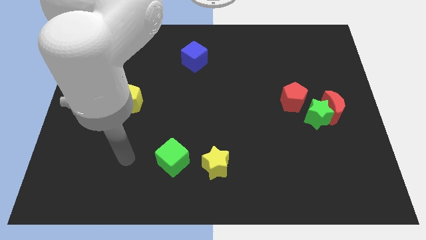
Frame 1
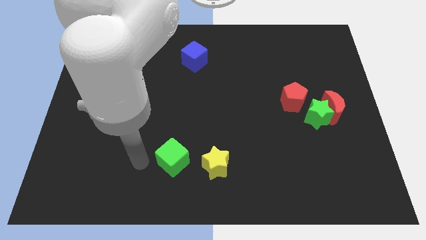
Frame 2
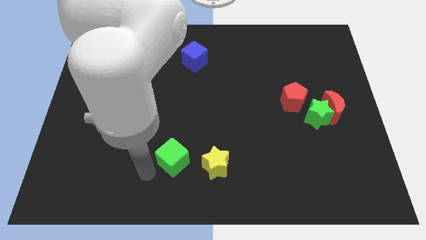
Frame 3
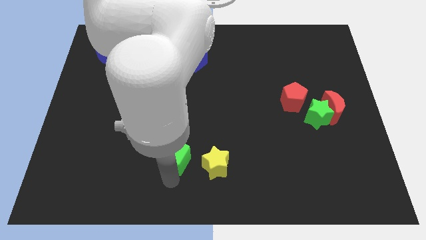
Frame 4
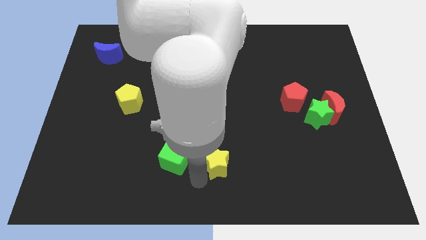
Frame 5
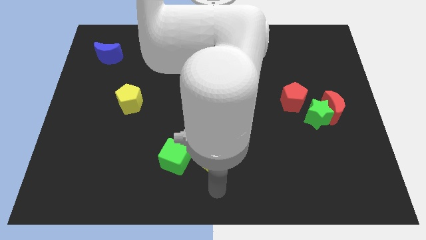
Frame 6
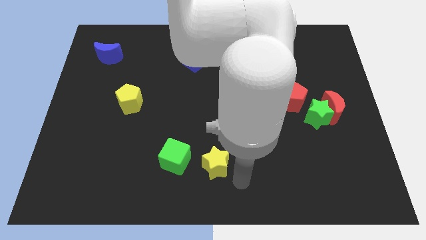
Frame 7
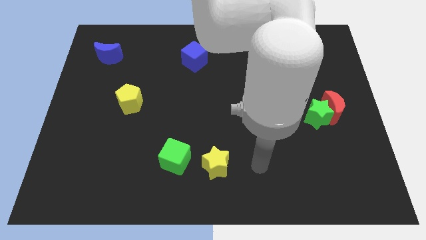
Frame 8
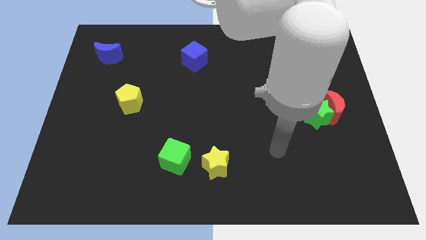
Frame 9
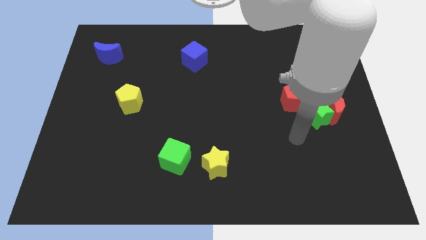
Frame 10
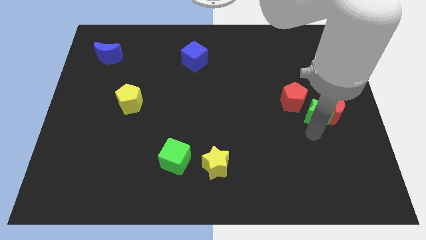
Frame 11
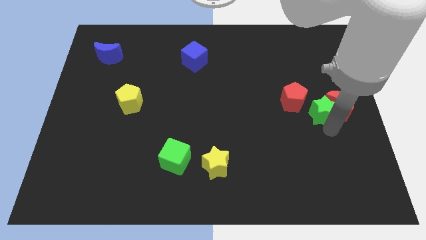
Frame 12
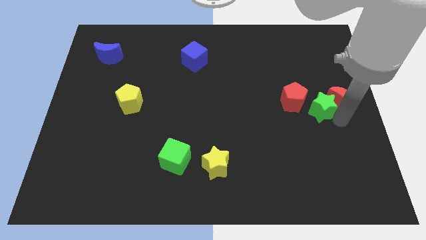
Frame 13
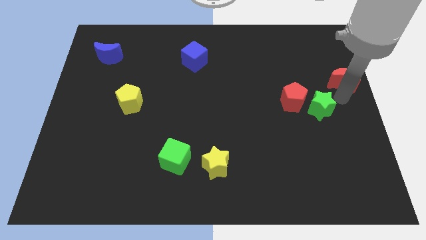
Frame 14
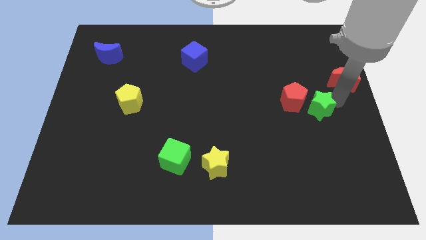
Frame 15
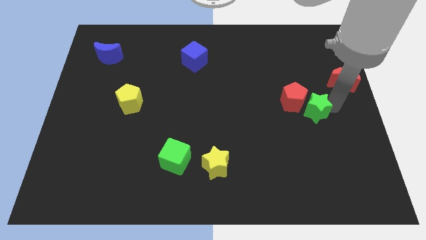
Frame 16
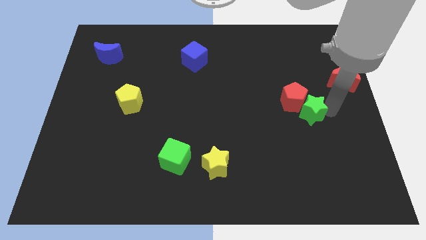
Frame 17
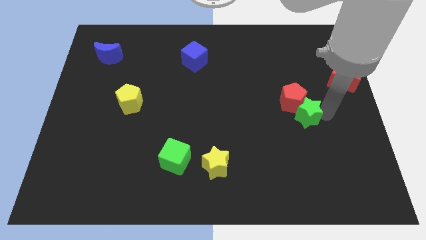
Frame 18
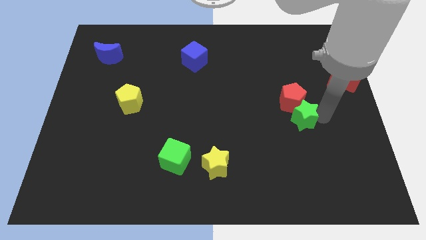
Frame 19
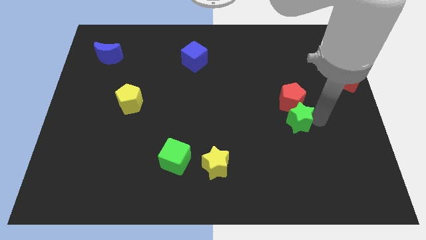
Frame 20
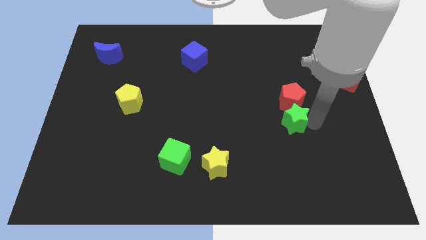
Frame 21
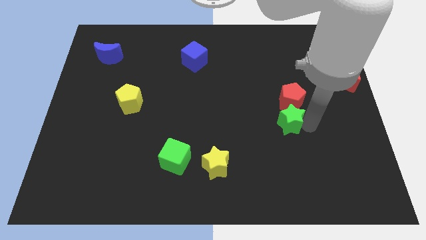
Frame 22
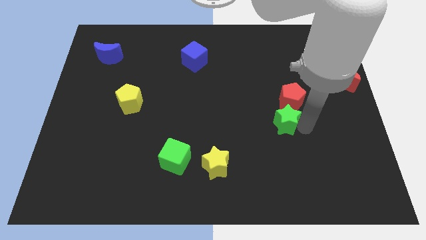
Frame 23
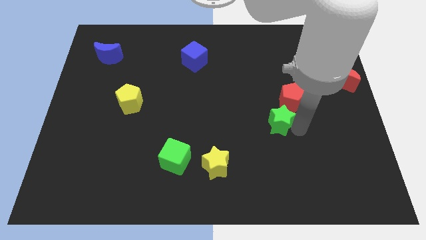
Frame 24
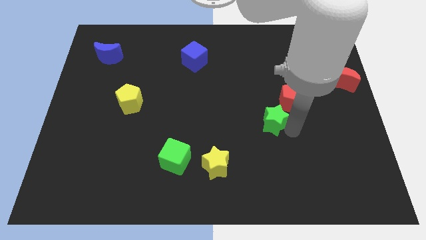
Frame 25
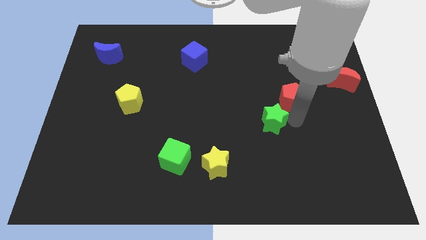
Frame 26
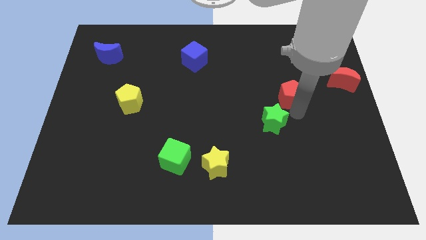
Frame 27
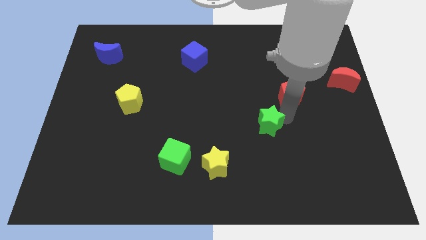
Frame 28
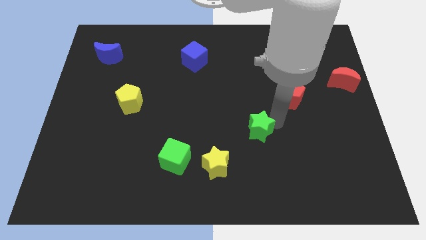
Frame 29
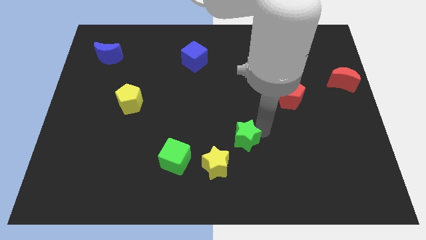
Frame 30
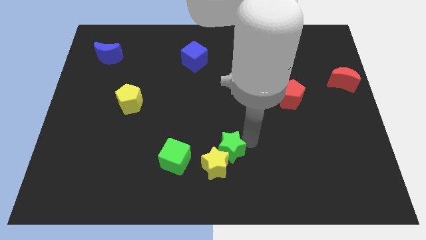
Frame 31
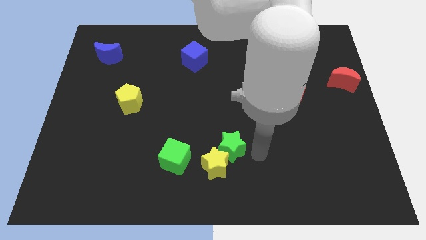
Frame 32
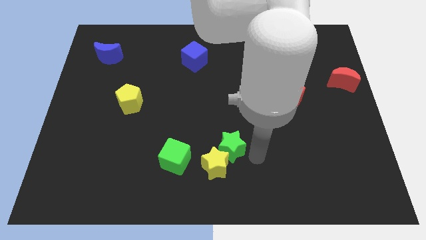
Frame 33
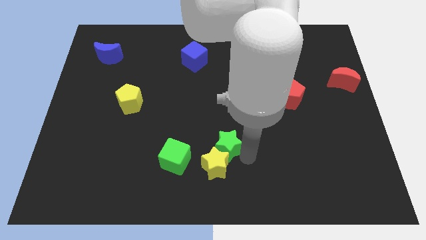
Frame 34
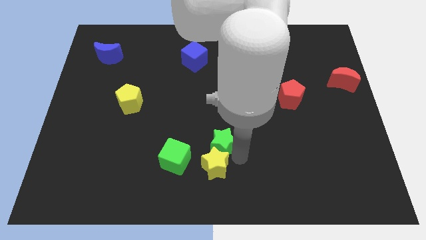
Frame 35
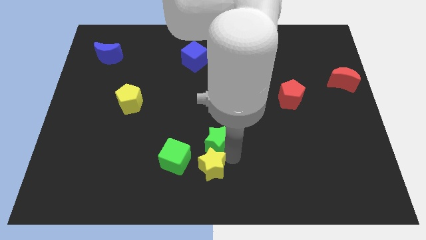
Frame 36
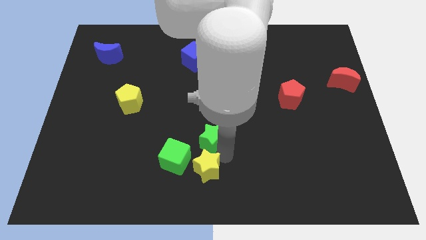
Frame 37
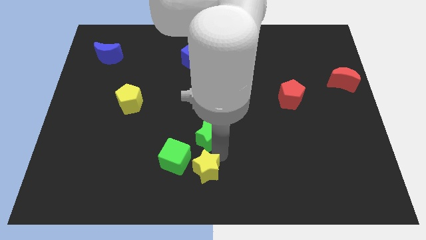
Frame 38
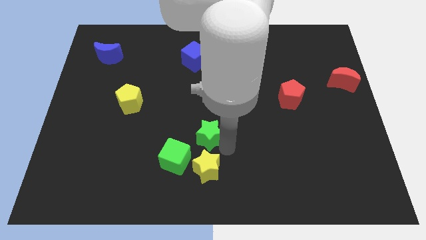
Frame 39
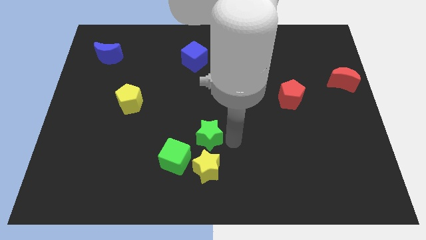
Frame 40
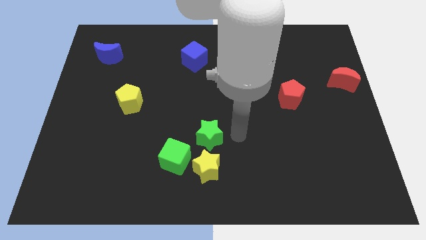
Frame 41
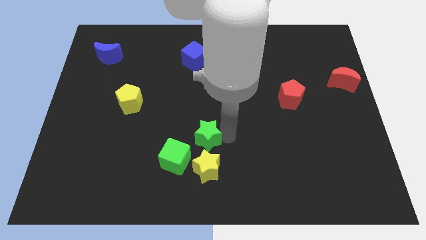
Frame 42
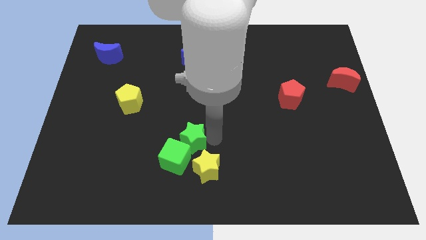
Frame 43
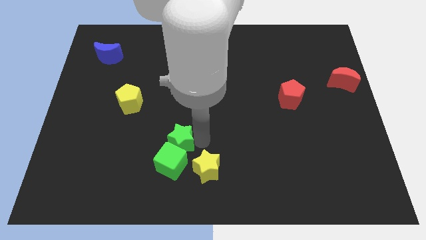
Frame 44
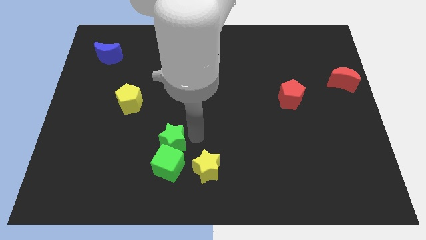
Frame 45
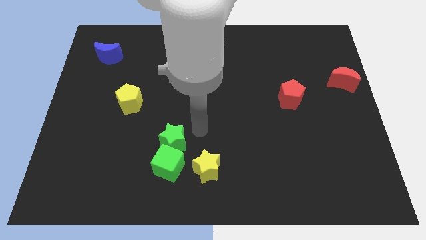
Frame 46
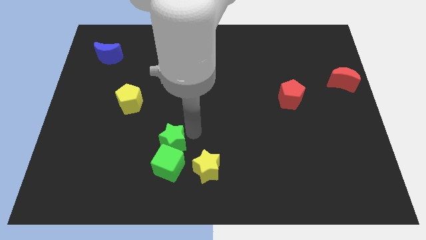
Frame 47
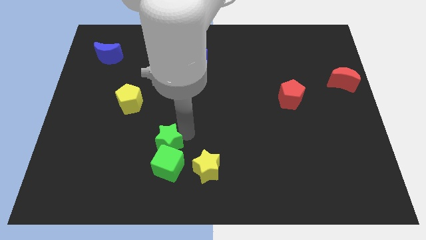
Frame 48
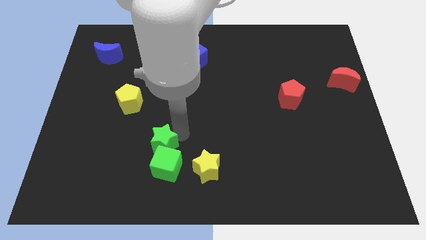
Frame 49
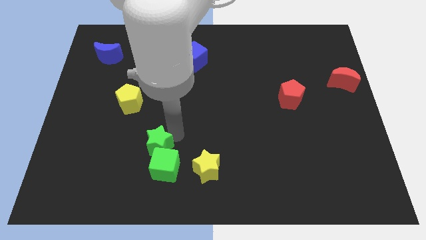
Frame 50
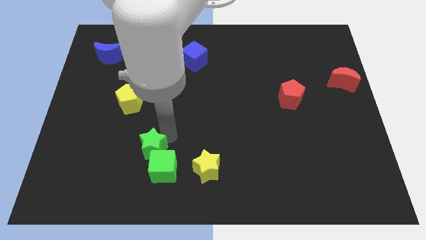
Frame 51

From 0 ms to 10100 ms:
slide the green star to the left side of the yellow star

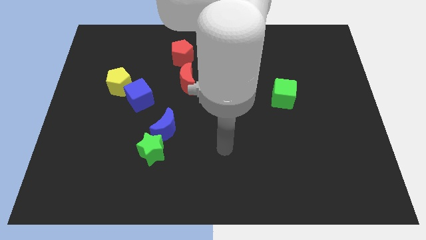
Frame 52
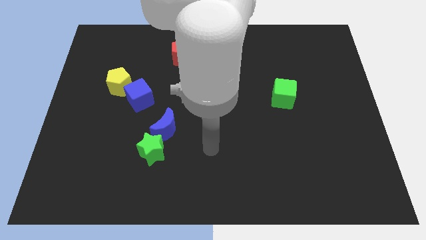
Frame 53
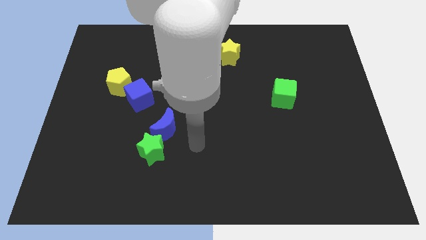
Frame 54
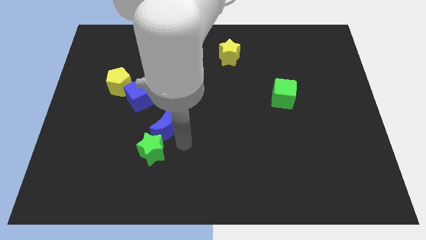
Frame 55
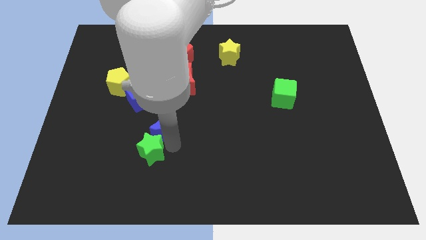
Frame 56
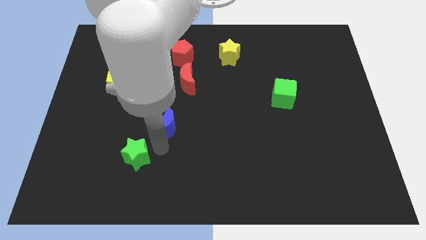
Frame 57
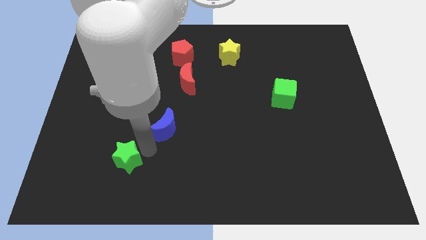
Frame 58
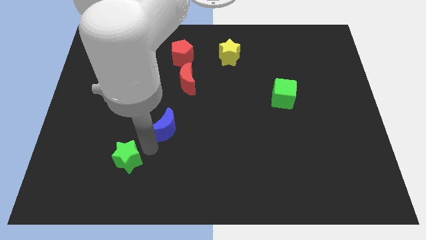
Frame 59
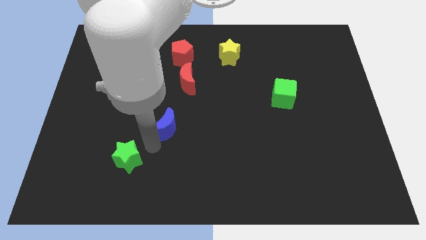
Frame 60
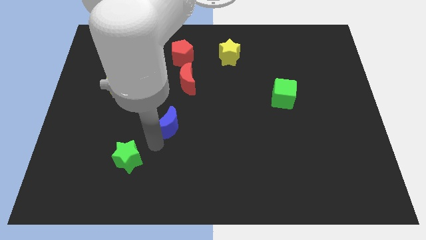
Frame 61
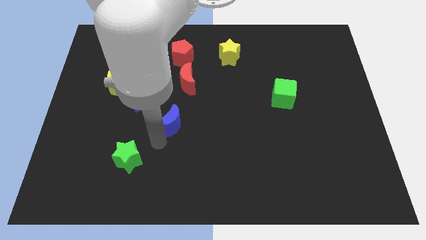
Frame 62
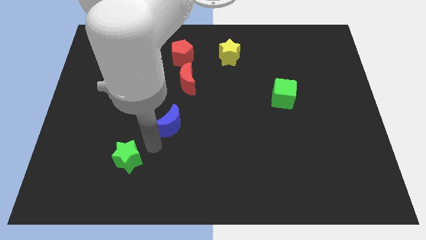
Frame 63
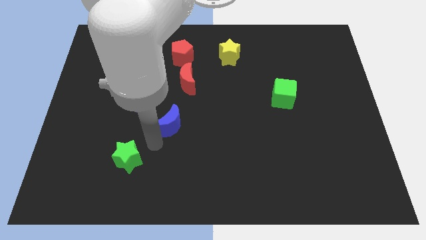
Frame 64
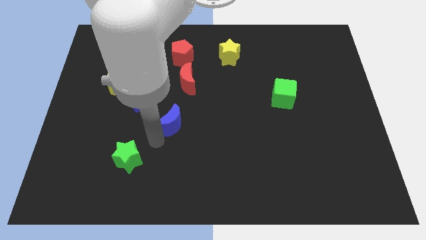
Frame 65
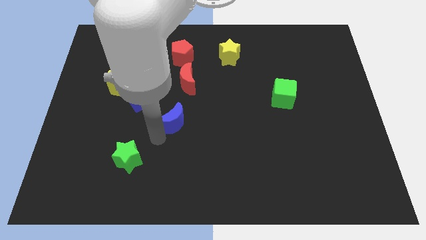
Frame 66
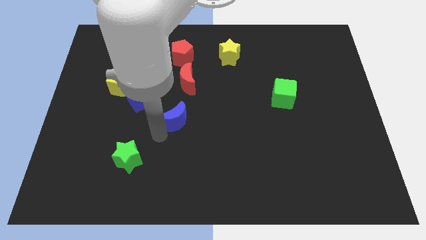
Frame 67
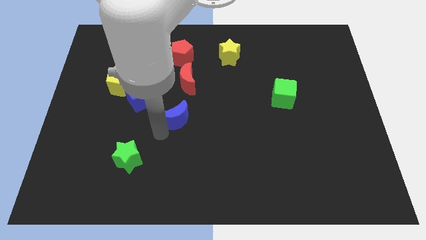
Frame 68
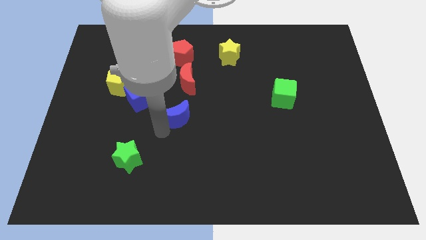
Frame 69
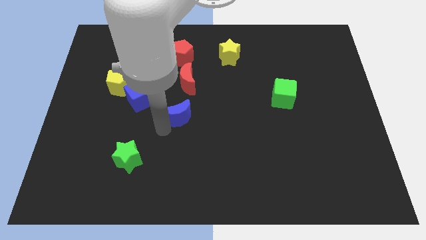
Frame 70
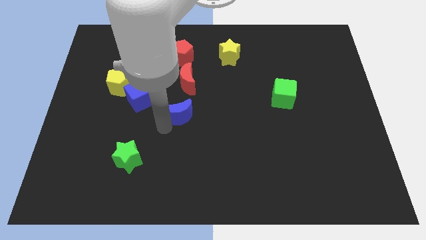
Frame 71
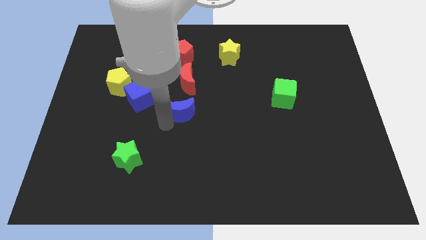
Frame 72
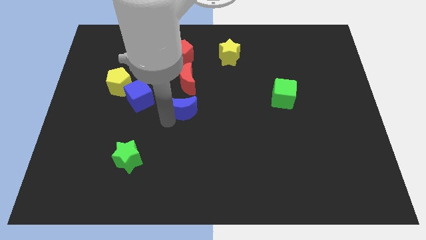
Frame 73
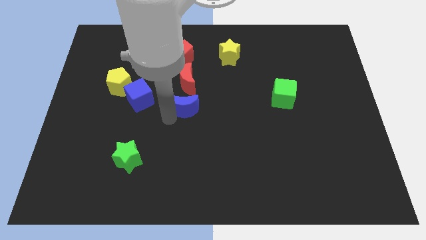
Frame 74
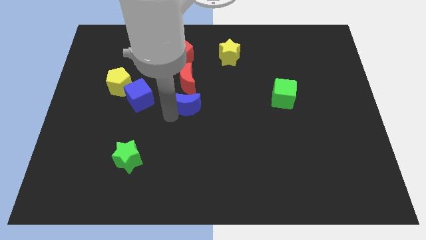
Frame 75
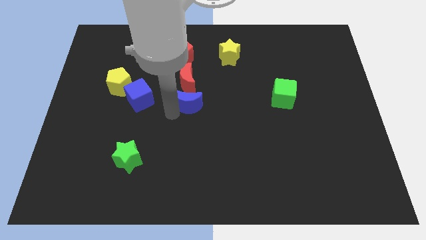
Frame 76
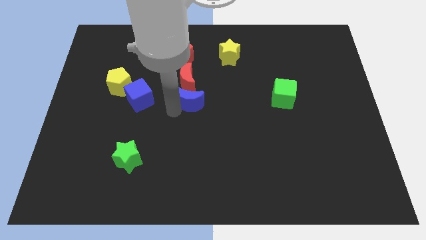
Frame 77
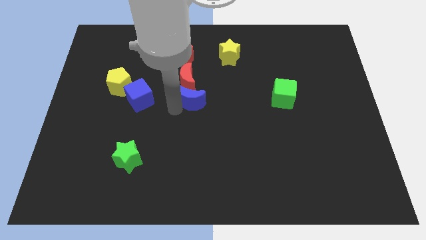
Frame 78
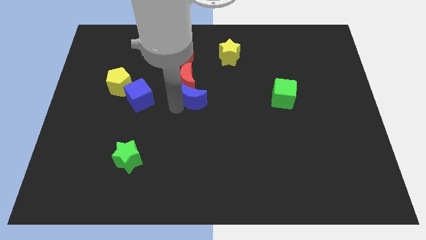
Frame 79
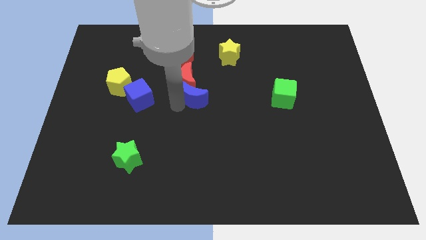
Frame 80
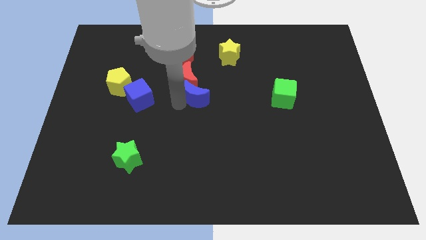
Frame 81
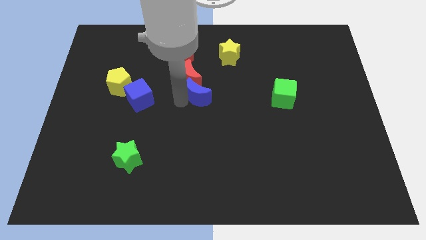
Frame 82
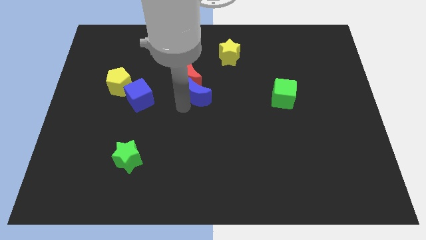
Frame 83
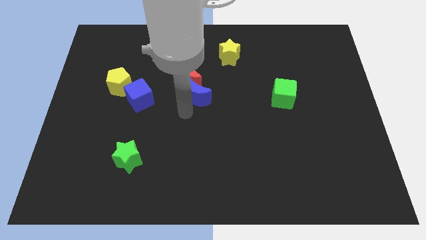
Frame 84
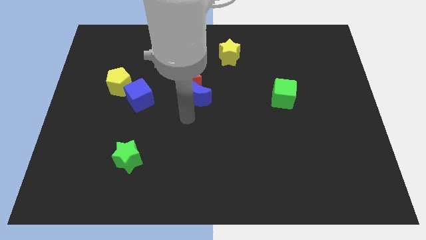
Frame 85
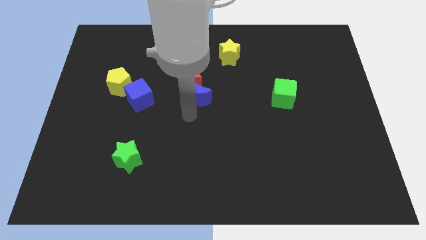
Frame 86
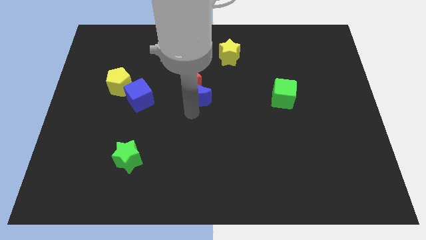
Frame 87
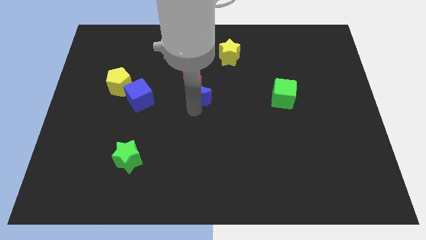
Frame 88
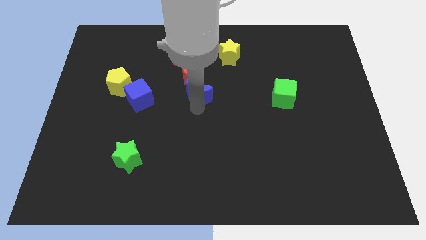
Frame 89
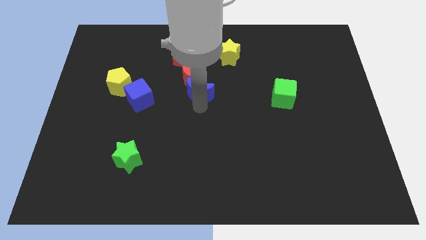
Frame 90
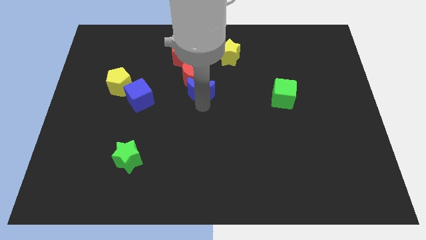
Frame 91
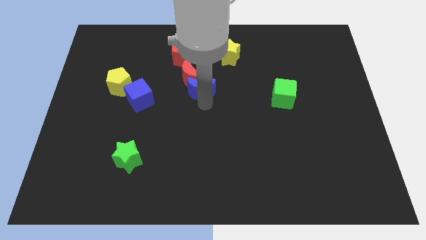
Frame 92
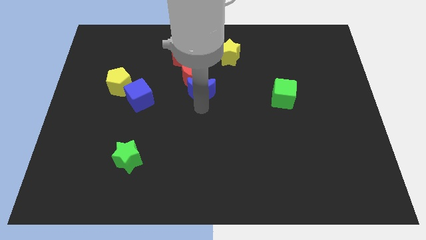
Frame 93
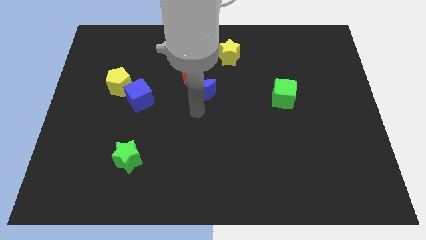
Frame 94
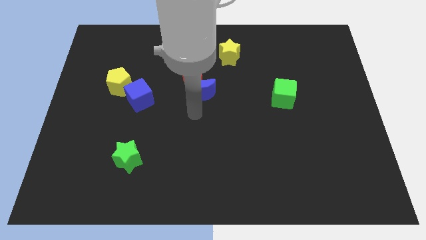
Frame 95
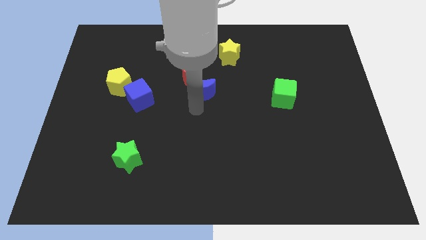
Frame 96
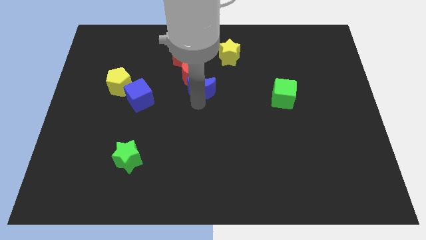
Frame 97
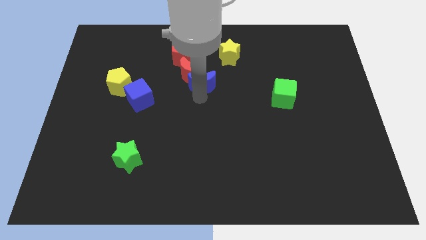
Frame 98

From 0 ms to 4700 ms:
slide the blue moon diagonally down and to the left of the yellow star
